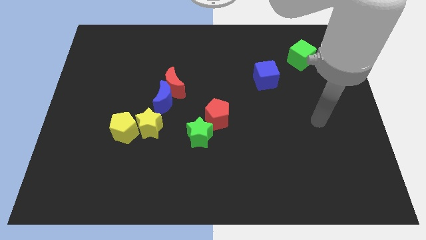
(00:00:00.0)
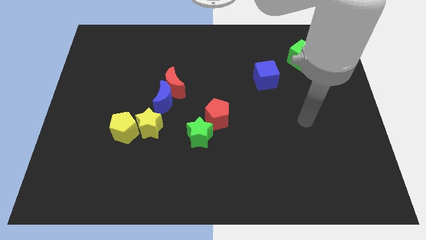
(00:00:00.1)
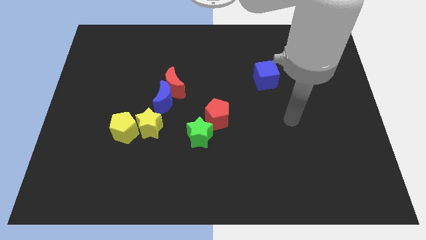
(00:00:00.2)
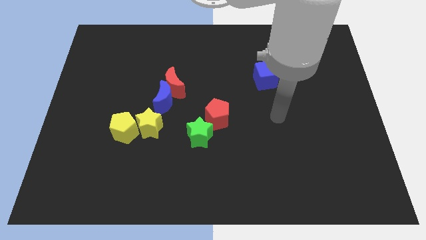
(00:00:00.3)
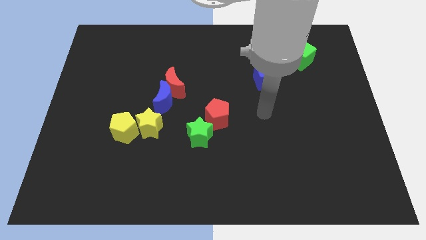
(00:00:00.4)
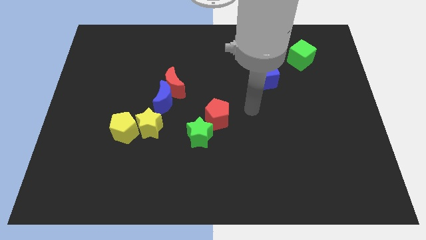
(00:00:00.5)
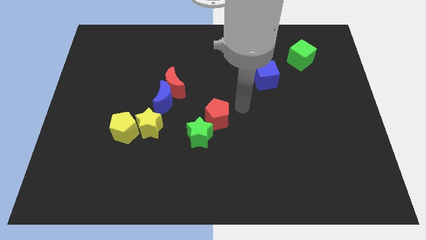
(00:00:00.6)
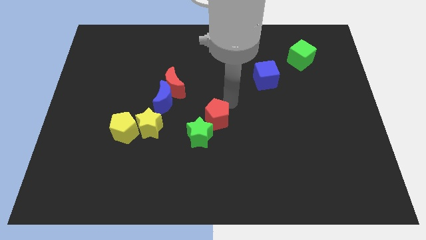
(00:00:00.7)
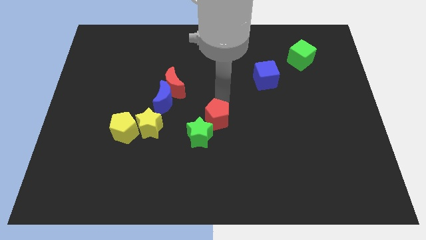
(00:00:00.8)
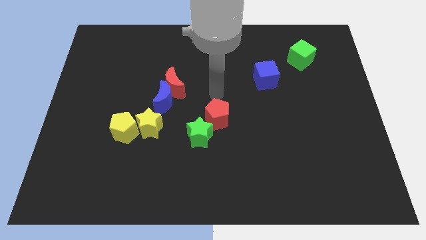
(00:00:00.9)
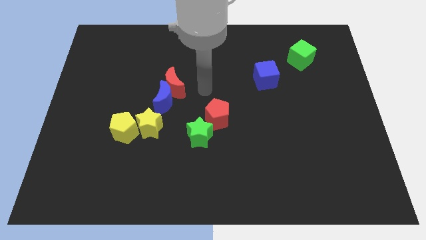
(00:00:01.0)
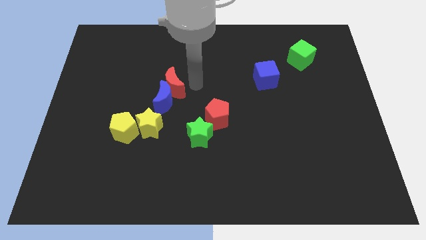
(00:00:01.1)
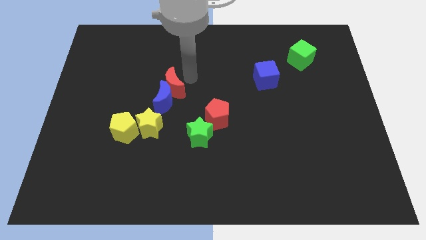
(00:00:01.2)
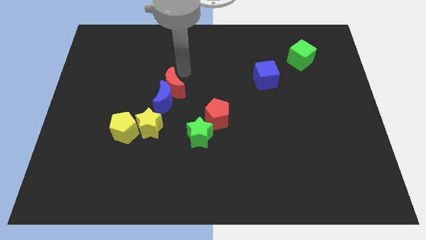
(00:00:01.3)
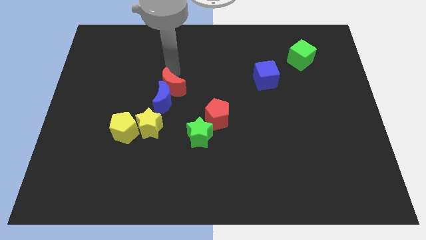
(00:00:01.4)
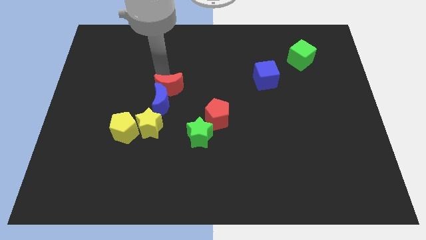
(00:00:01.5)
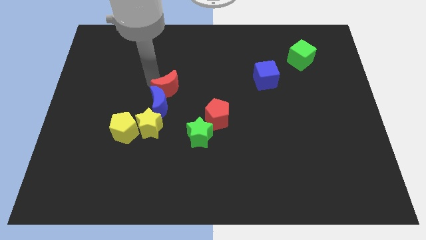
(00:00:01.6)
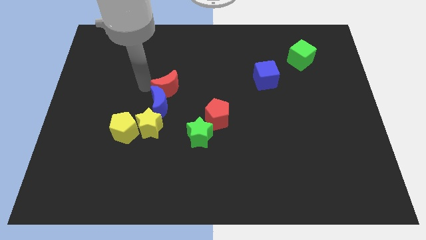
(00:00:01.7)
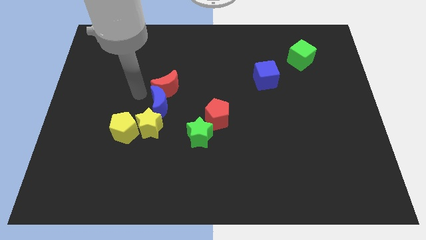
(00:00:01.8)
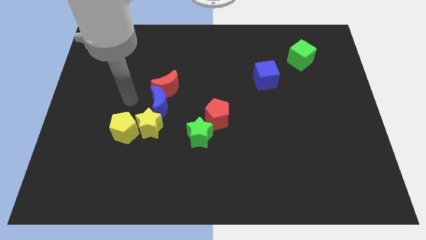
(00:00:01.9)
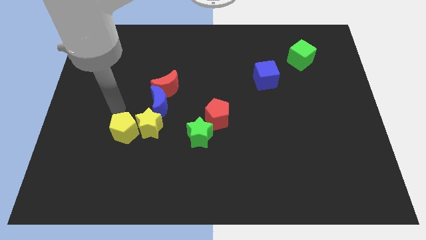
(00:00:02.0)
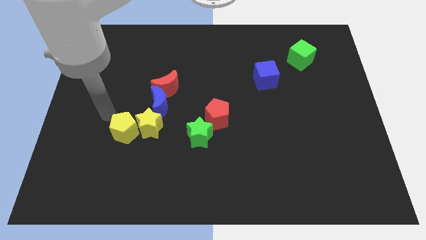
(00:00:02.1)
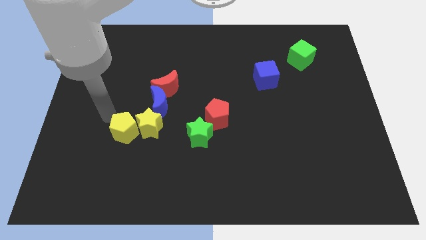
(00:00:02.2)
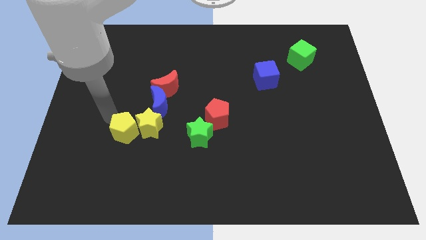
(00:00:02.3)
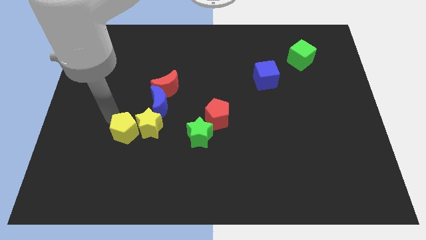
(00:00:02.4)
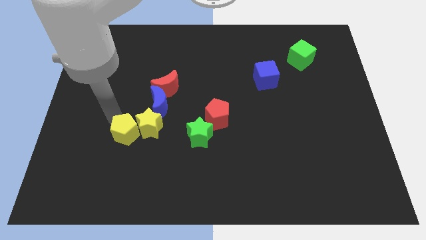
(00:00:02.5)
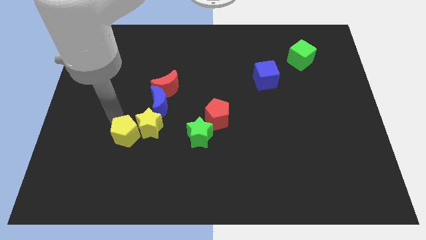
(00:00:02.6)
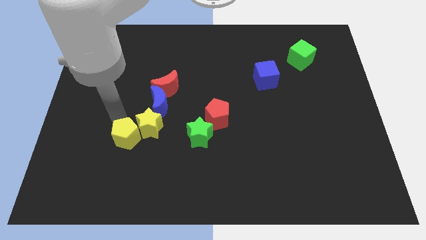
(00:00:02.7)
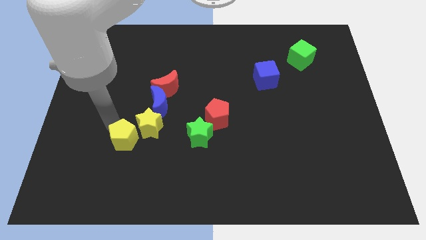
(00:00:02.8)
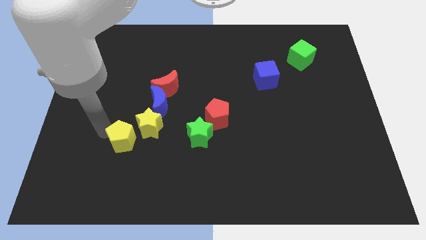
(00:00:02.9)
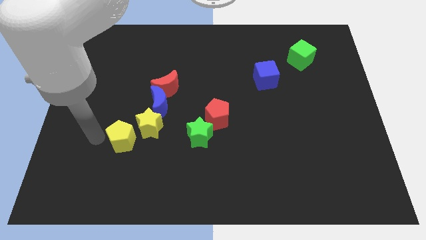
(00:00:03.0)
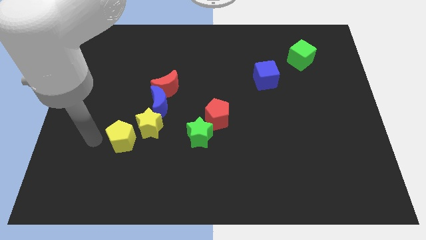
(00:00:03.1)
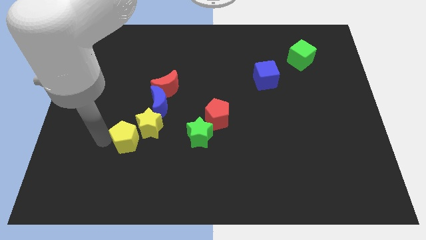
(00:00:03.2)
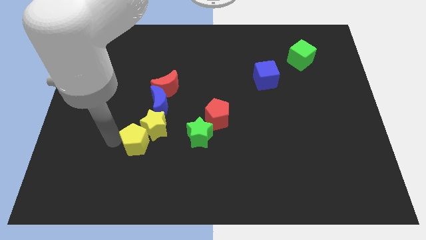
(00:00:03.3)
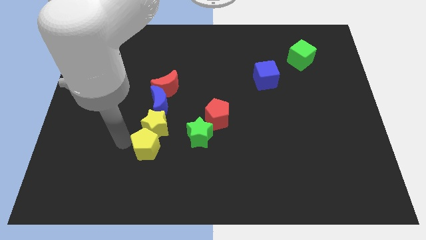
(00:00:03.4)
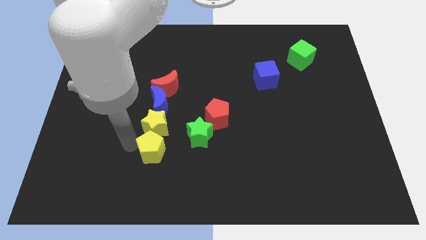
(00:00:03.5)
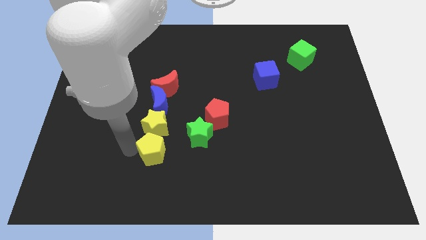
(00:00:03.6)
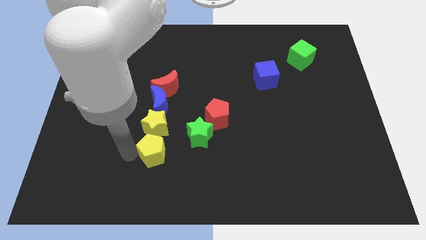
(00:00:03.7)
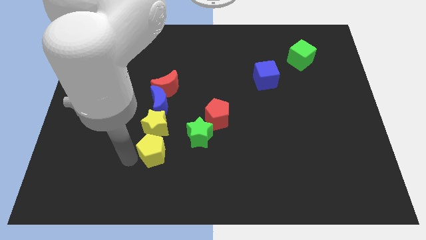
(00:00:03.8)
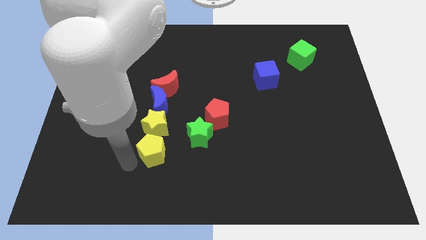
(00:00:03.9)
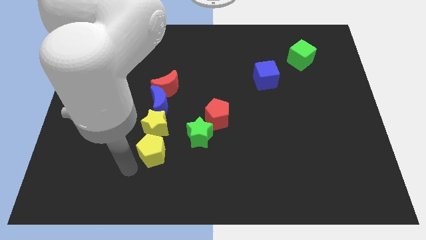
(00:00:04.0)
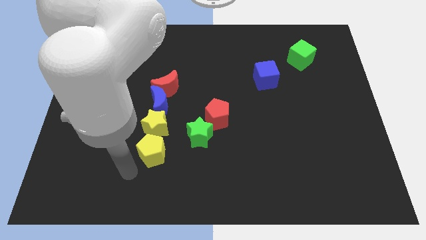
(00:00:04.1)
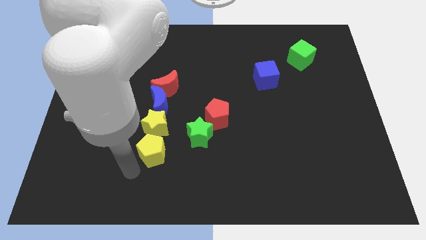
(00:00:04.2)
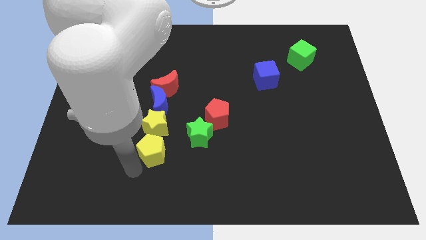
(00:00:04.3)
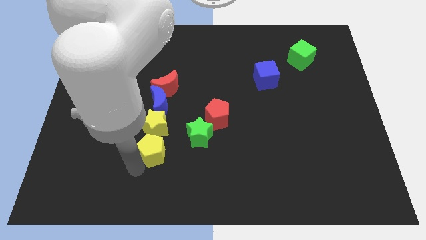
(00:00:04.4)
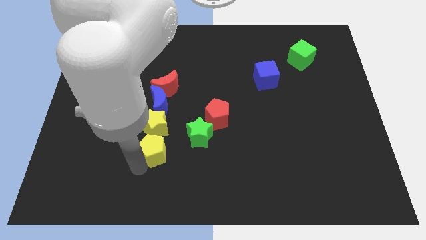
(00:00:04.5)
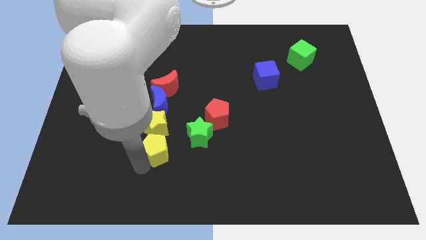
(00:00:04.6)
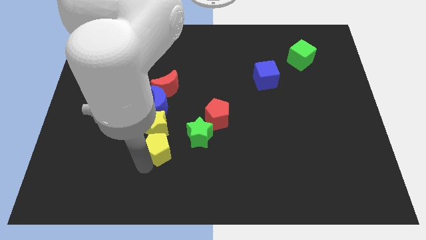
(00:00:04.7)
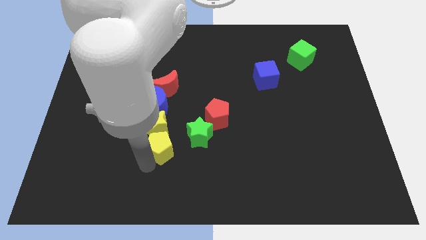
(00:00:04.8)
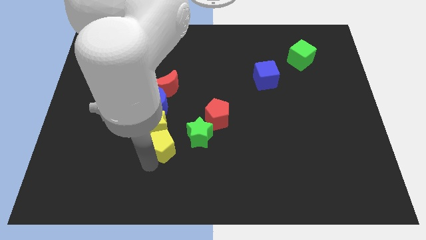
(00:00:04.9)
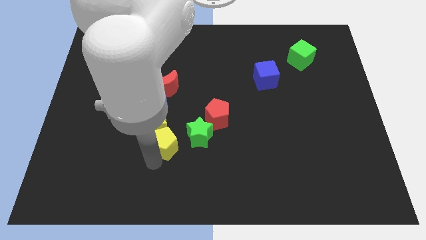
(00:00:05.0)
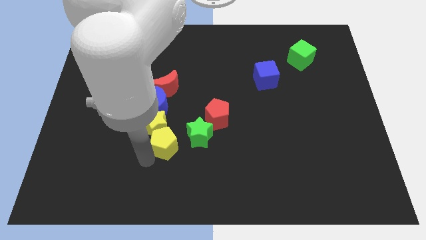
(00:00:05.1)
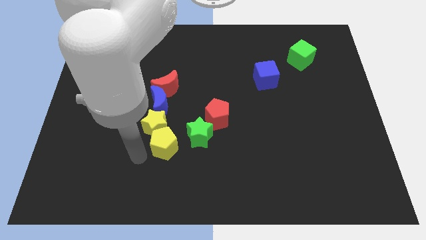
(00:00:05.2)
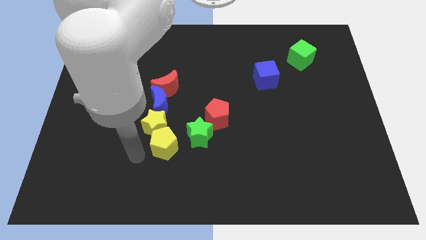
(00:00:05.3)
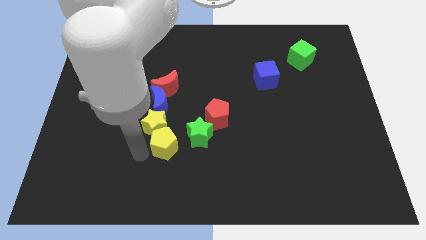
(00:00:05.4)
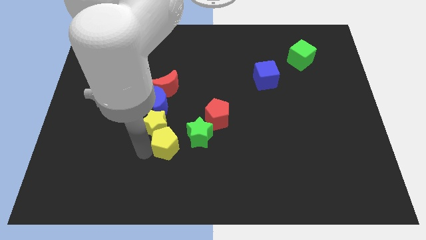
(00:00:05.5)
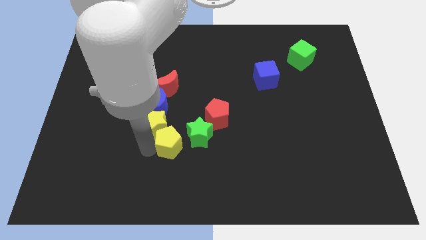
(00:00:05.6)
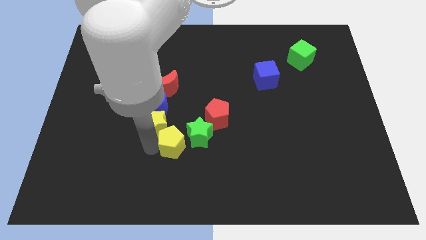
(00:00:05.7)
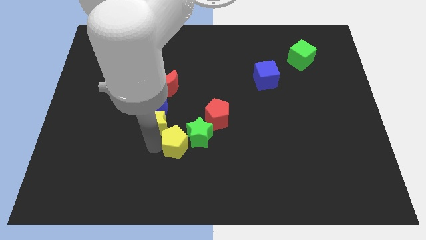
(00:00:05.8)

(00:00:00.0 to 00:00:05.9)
put the yellow pentagon towards the green star
